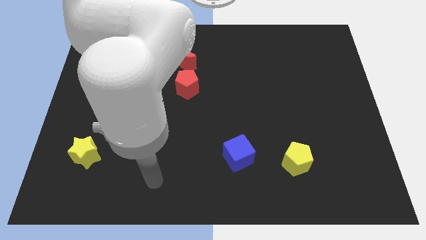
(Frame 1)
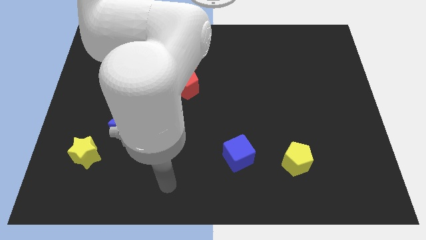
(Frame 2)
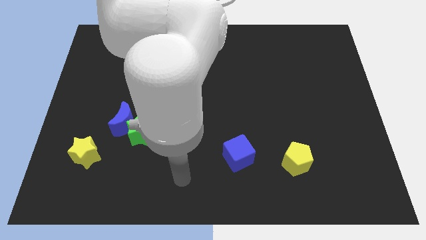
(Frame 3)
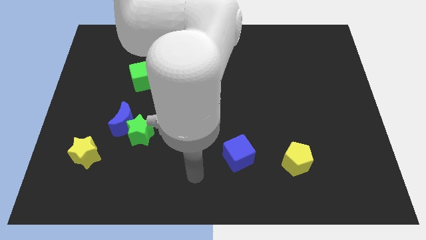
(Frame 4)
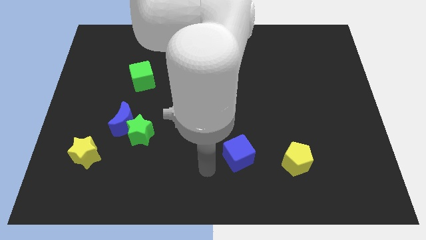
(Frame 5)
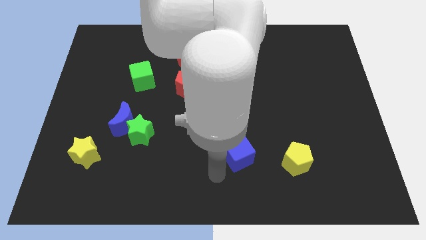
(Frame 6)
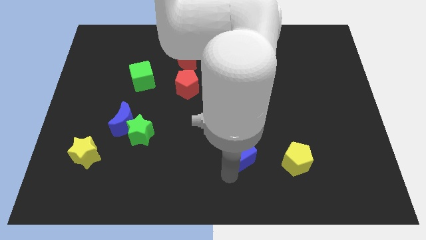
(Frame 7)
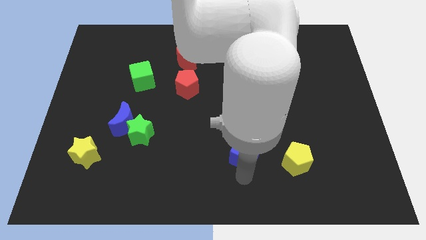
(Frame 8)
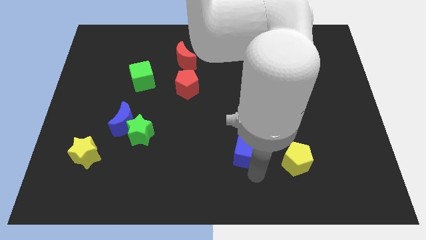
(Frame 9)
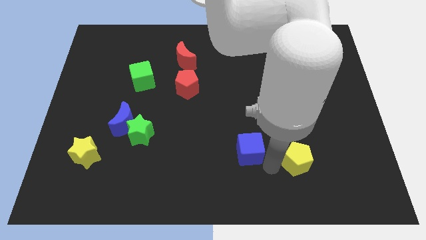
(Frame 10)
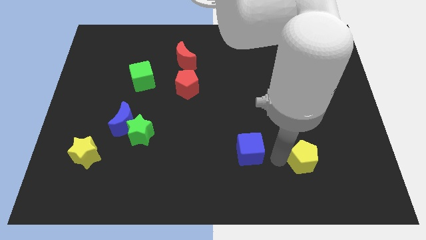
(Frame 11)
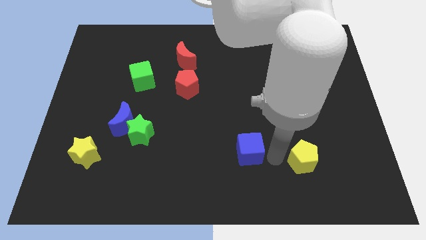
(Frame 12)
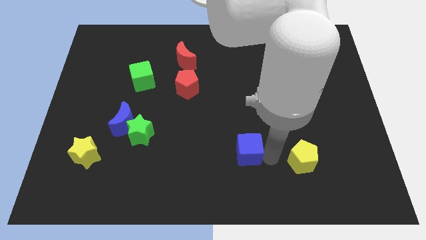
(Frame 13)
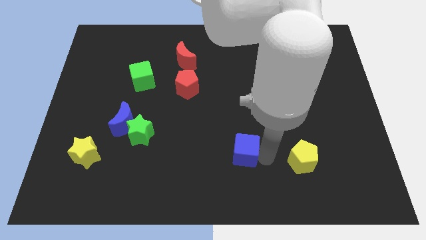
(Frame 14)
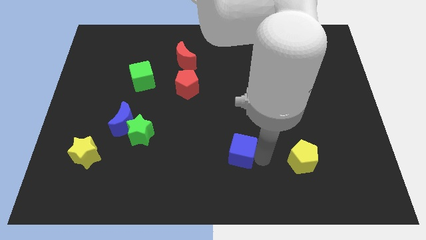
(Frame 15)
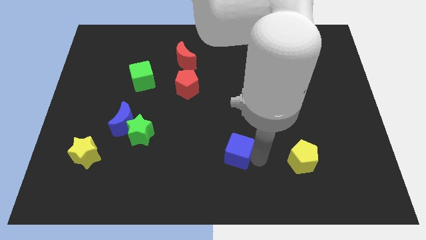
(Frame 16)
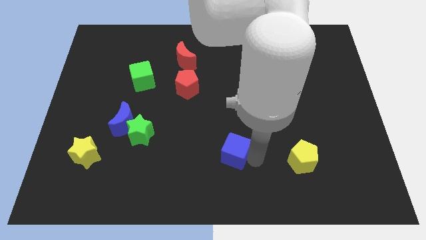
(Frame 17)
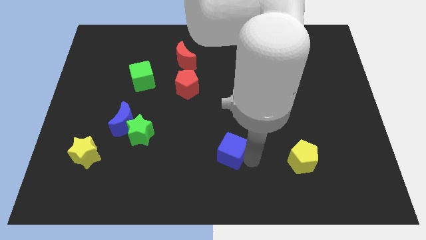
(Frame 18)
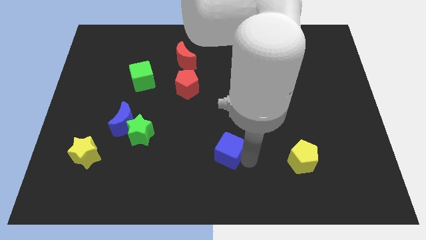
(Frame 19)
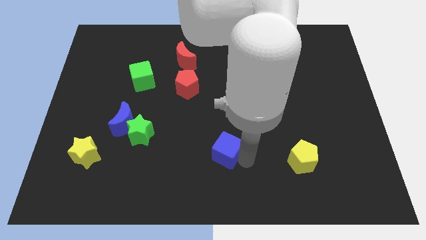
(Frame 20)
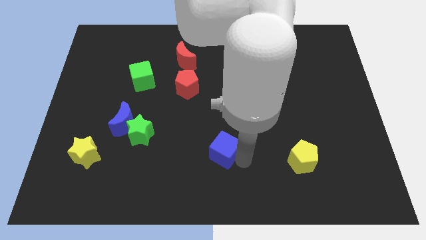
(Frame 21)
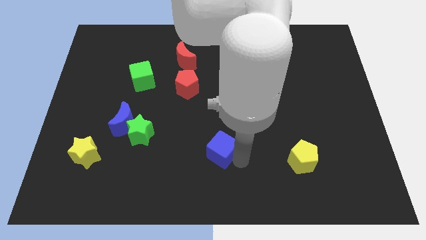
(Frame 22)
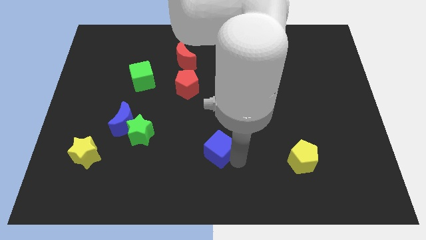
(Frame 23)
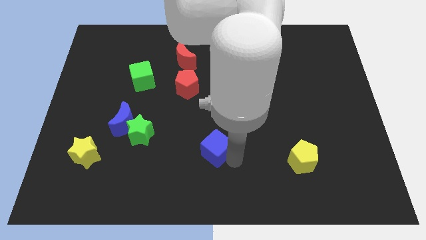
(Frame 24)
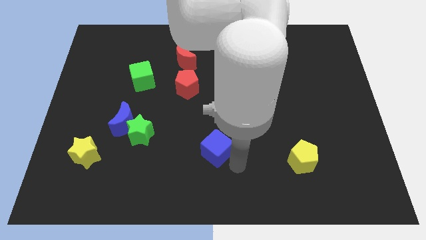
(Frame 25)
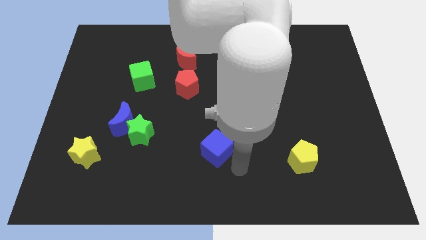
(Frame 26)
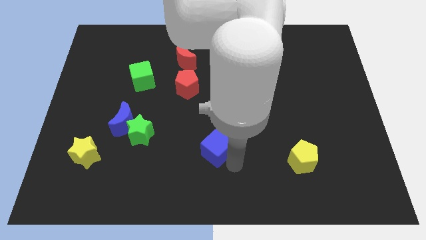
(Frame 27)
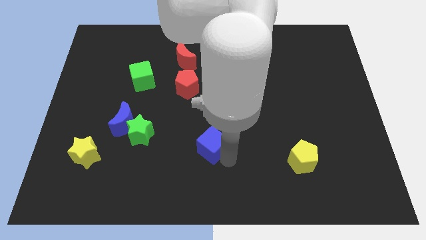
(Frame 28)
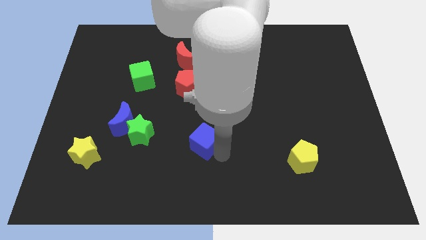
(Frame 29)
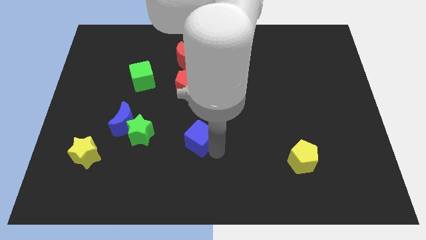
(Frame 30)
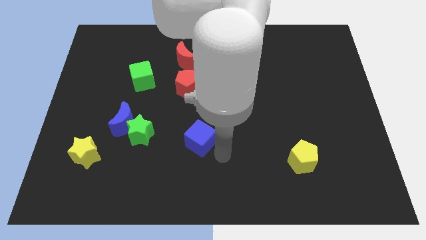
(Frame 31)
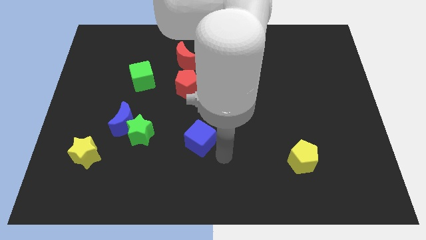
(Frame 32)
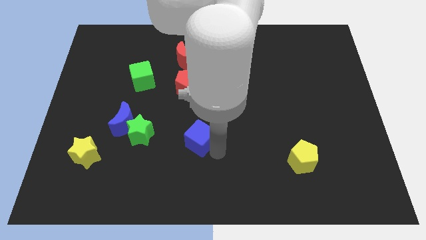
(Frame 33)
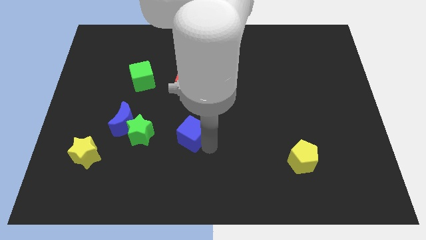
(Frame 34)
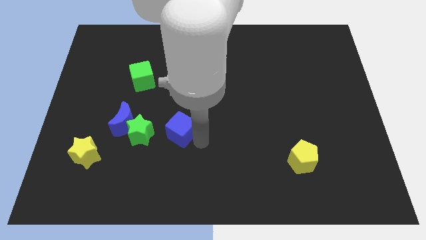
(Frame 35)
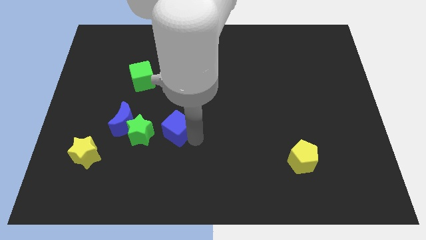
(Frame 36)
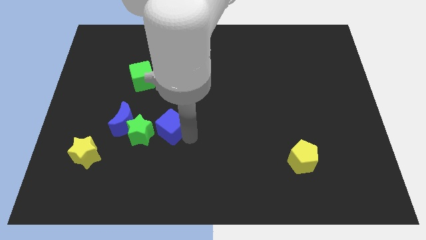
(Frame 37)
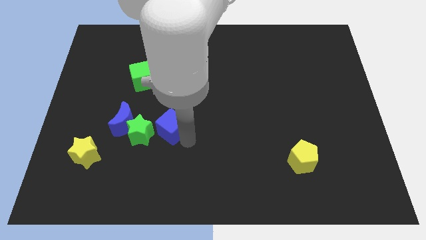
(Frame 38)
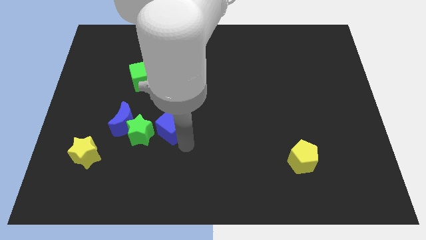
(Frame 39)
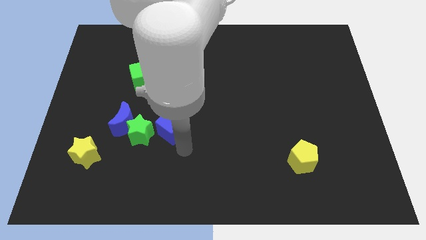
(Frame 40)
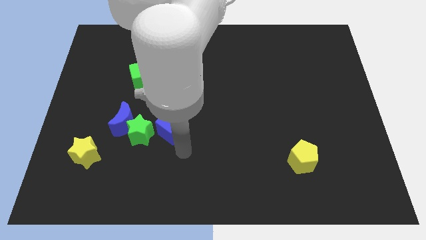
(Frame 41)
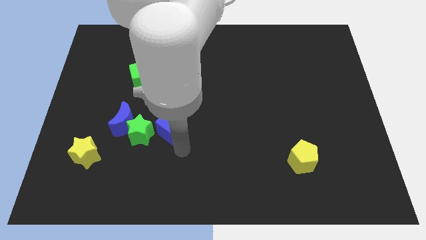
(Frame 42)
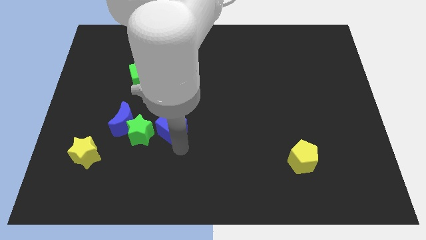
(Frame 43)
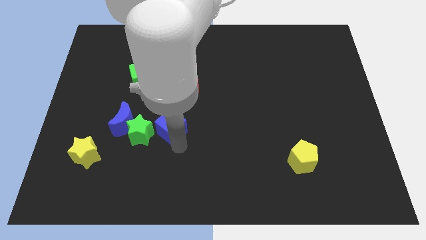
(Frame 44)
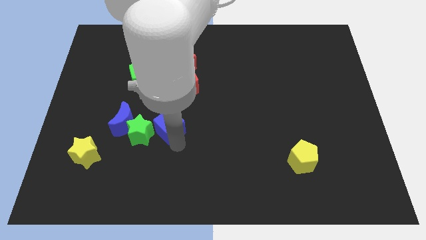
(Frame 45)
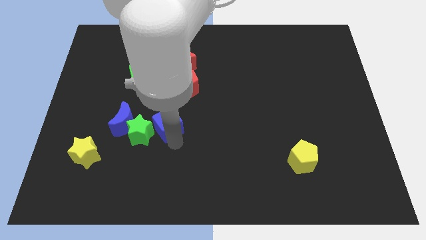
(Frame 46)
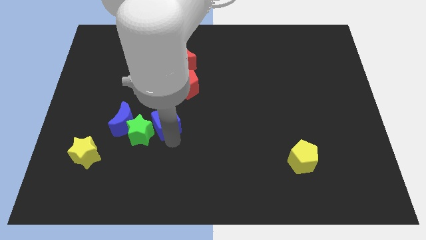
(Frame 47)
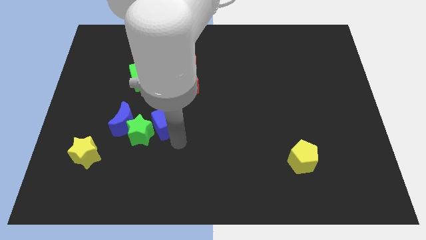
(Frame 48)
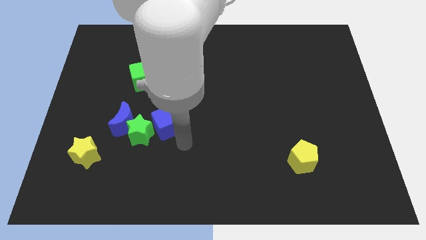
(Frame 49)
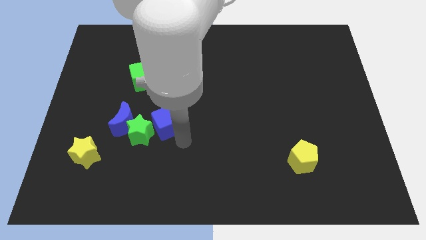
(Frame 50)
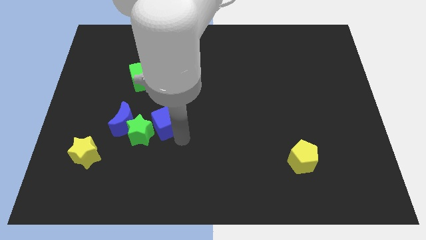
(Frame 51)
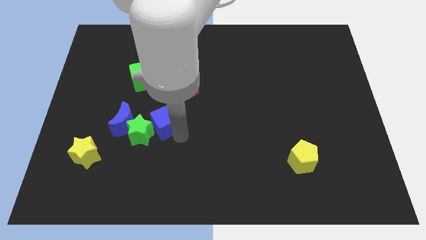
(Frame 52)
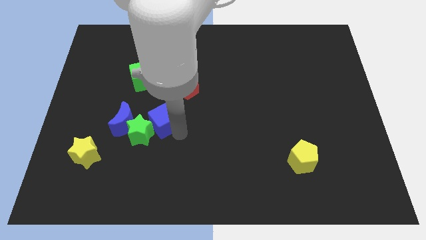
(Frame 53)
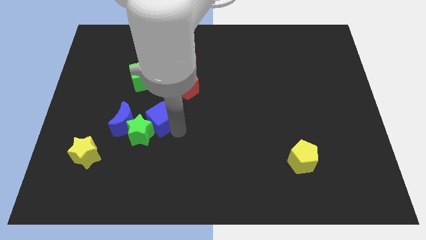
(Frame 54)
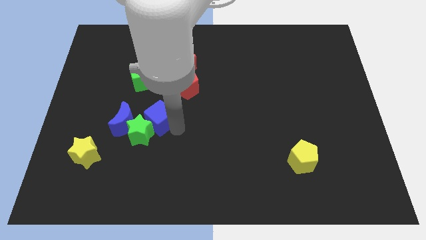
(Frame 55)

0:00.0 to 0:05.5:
slide the blue cube to the top of the green star

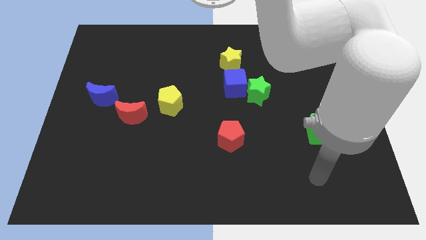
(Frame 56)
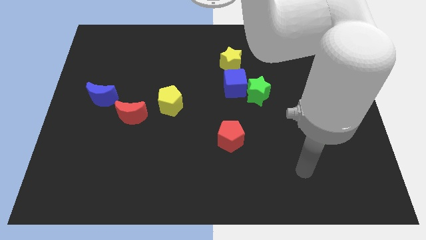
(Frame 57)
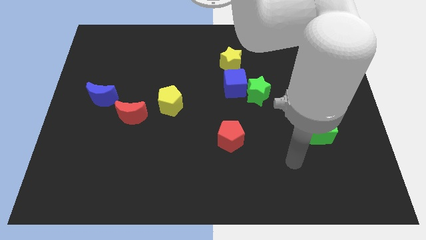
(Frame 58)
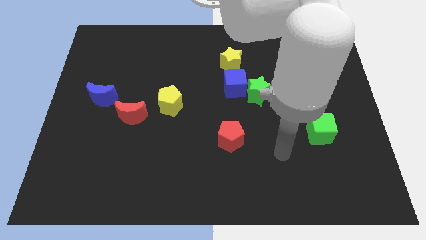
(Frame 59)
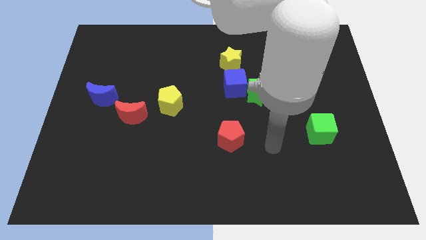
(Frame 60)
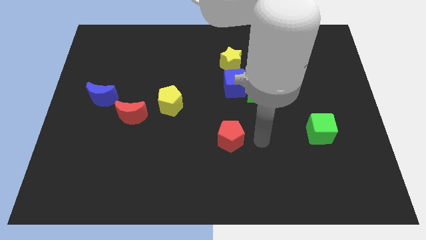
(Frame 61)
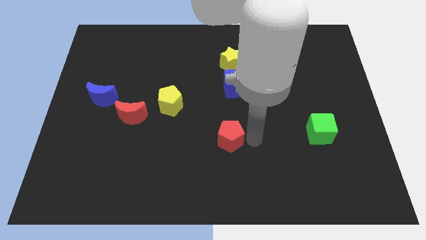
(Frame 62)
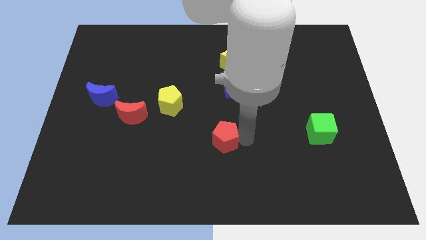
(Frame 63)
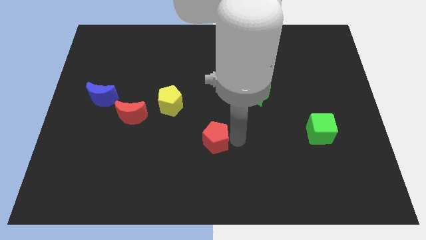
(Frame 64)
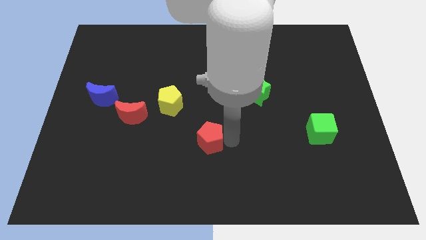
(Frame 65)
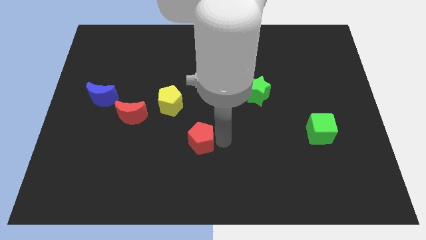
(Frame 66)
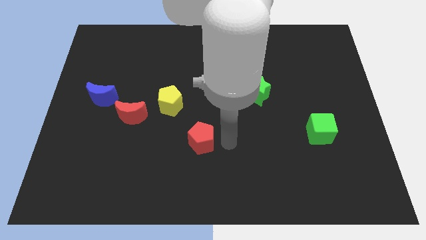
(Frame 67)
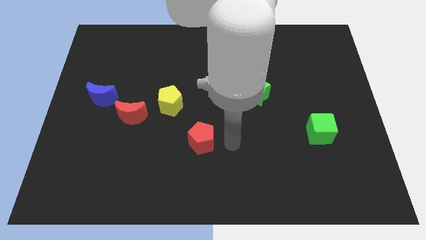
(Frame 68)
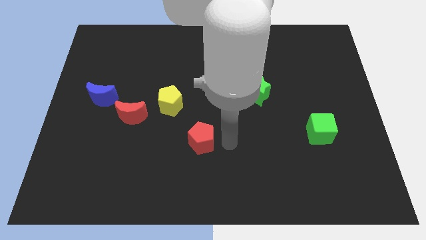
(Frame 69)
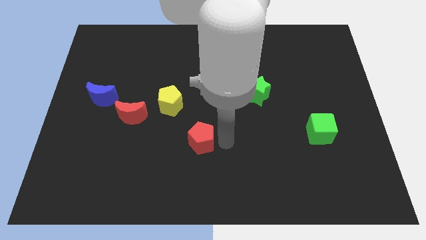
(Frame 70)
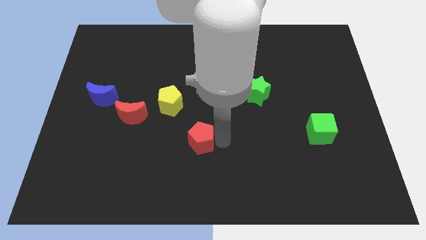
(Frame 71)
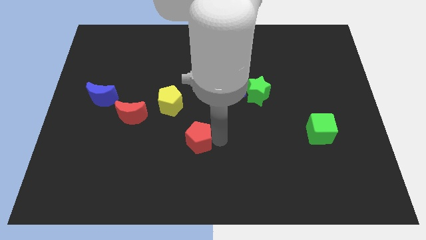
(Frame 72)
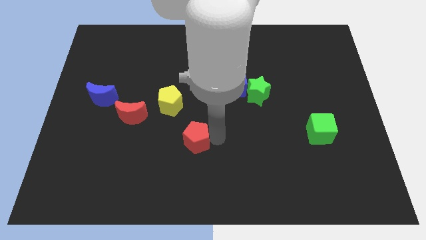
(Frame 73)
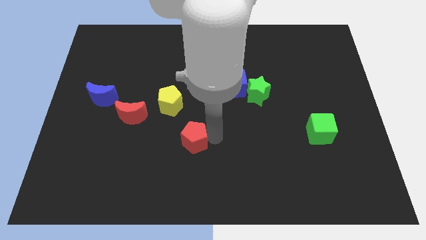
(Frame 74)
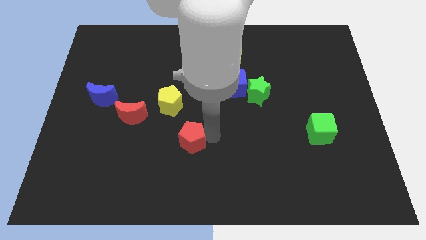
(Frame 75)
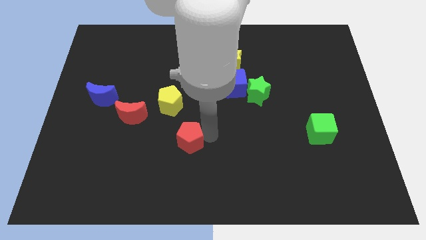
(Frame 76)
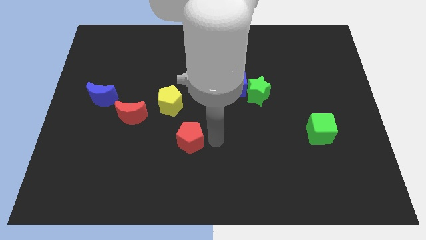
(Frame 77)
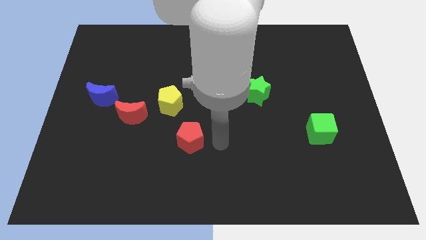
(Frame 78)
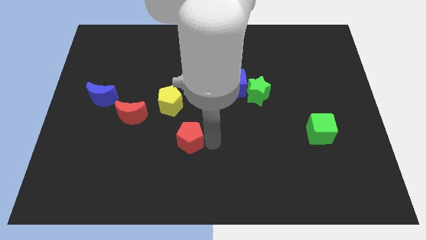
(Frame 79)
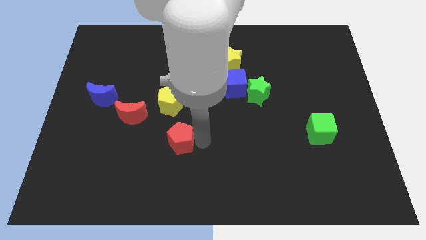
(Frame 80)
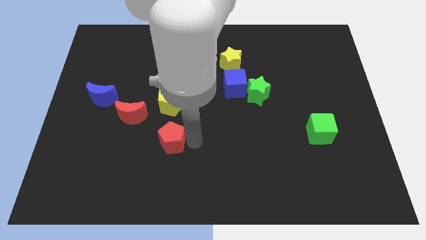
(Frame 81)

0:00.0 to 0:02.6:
slide the red pentagon diagonally down and to the right of the red moon
